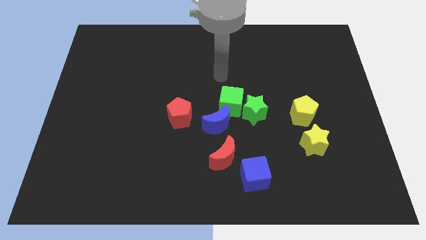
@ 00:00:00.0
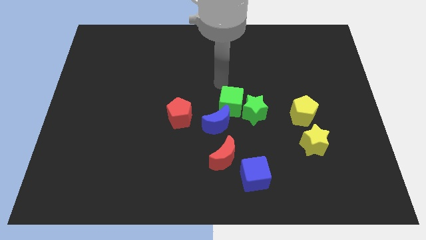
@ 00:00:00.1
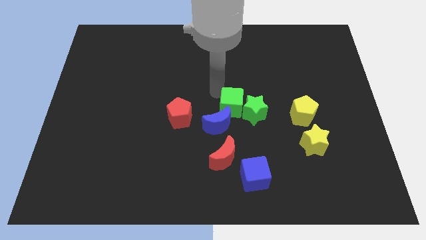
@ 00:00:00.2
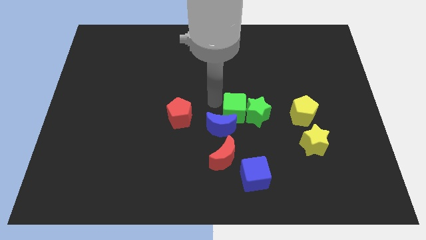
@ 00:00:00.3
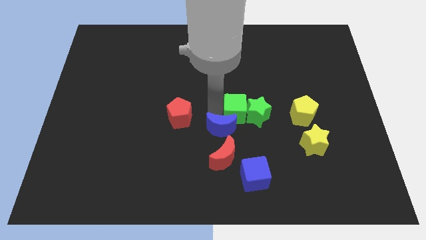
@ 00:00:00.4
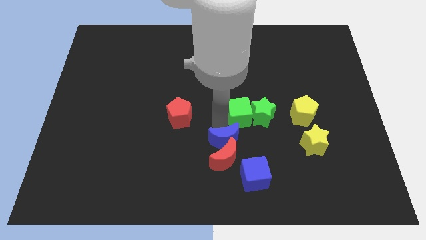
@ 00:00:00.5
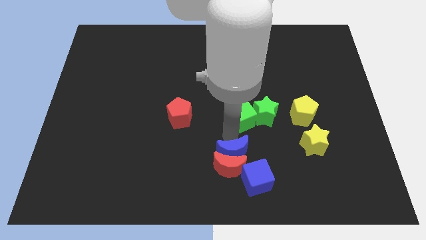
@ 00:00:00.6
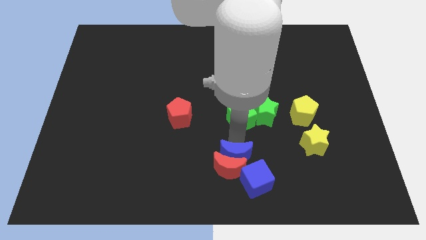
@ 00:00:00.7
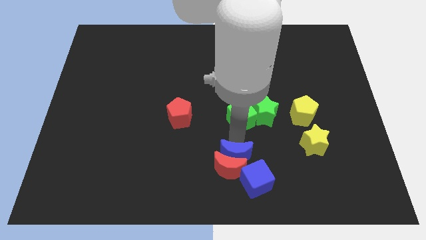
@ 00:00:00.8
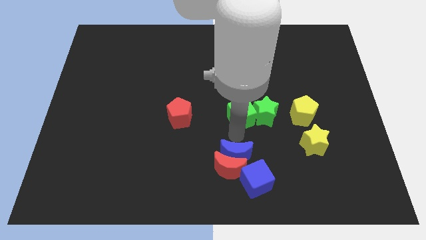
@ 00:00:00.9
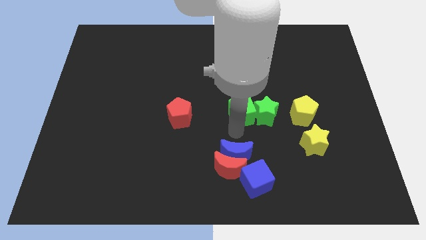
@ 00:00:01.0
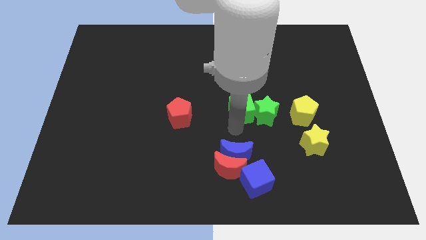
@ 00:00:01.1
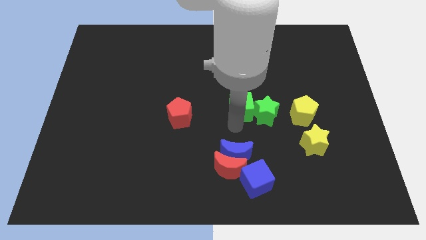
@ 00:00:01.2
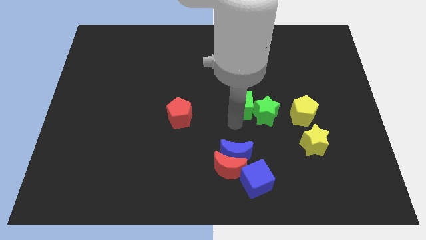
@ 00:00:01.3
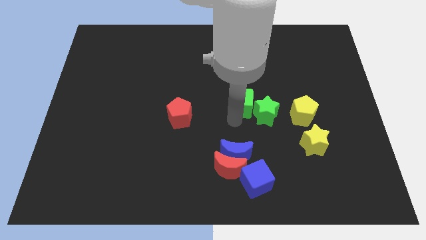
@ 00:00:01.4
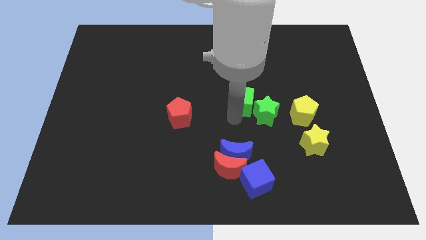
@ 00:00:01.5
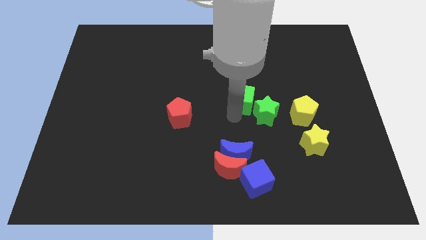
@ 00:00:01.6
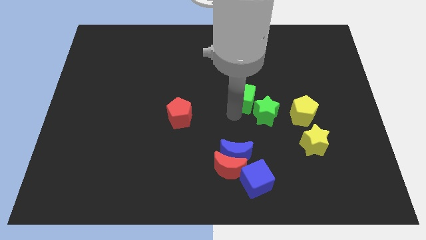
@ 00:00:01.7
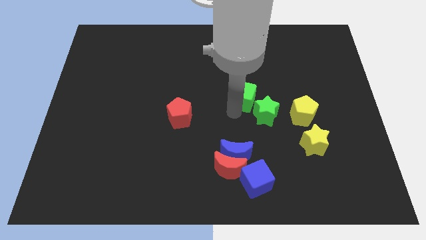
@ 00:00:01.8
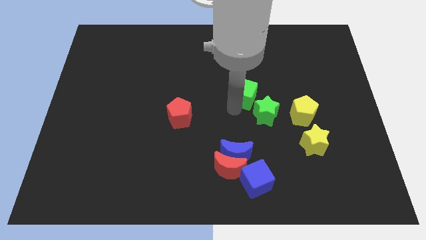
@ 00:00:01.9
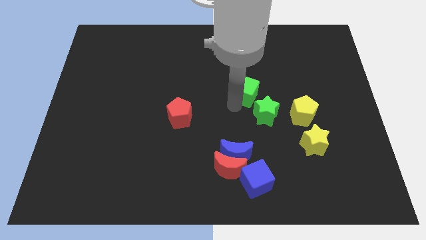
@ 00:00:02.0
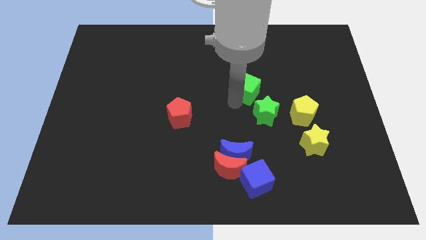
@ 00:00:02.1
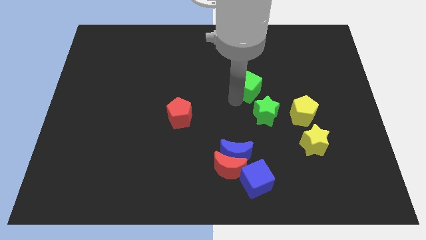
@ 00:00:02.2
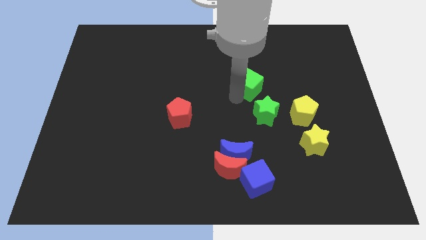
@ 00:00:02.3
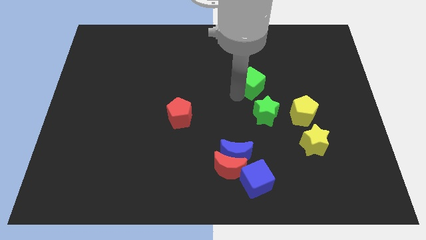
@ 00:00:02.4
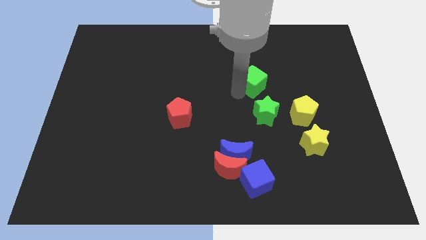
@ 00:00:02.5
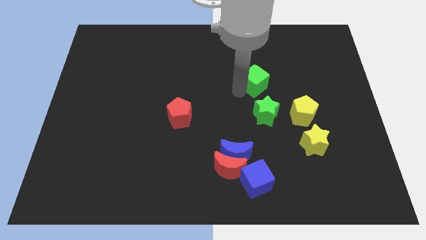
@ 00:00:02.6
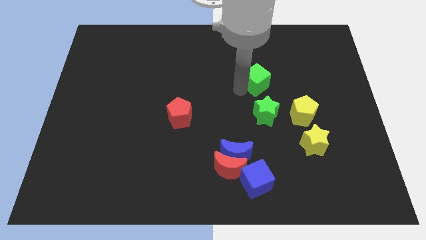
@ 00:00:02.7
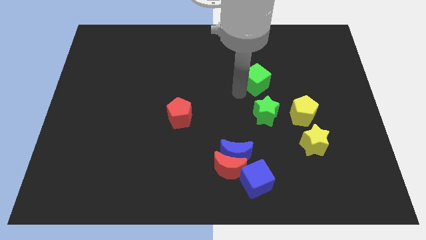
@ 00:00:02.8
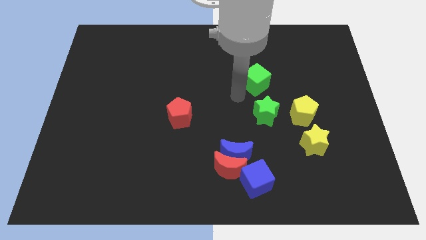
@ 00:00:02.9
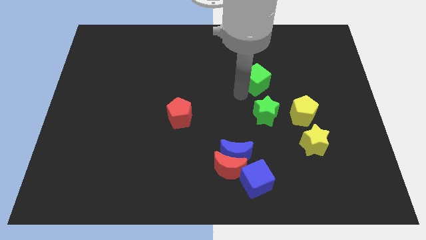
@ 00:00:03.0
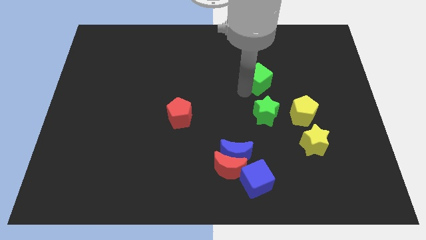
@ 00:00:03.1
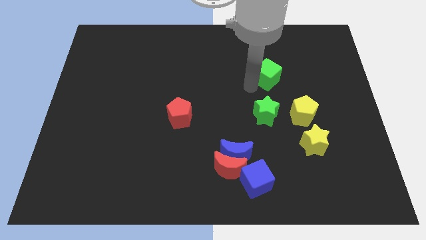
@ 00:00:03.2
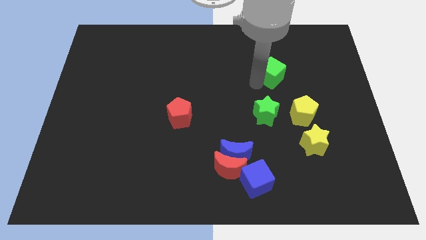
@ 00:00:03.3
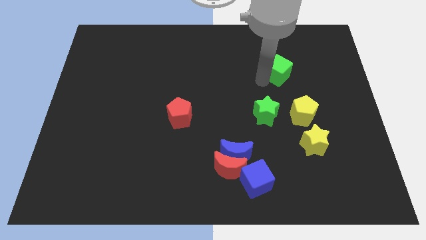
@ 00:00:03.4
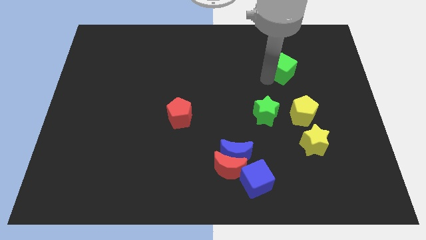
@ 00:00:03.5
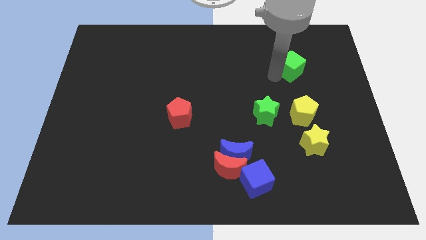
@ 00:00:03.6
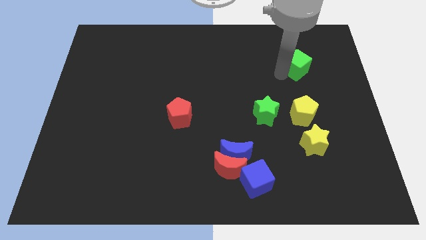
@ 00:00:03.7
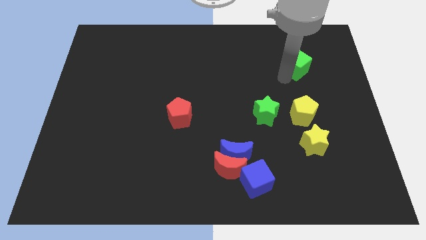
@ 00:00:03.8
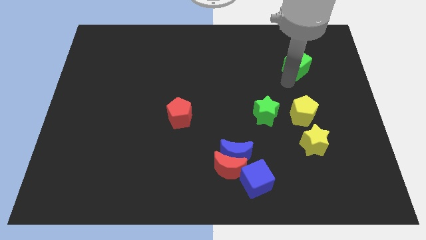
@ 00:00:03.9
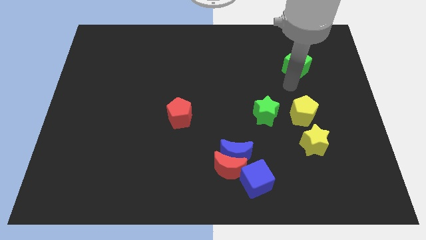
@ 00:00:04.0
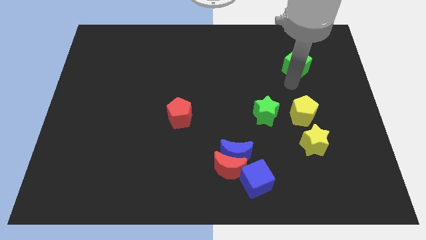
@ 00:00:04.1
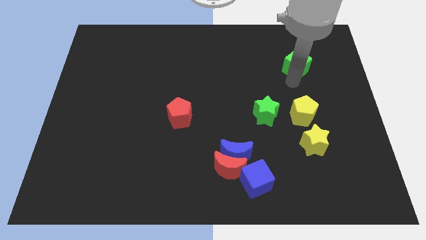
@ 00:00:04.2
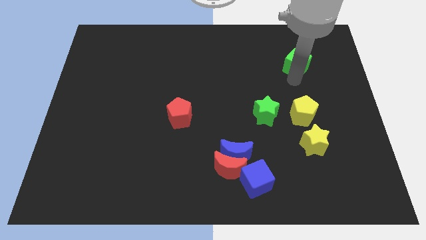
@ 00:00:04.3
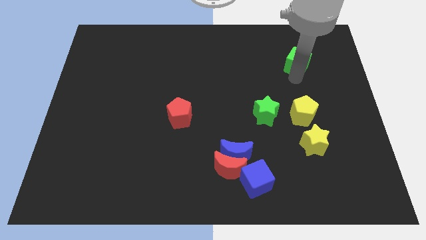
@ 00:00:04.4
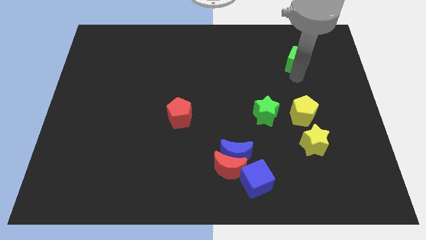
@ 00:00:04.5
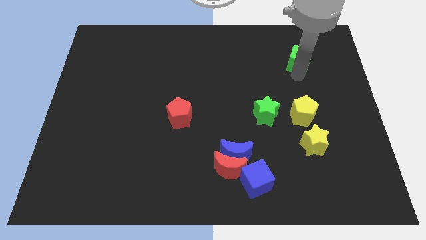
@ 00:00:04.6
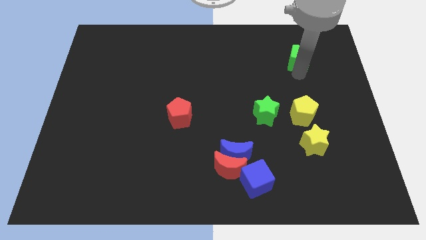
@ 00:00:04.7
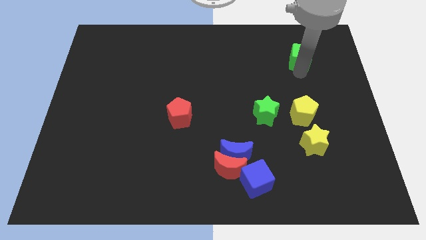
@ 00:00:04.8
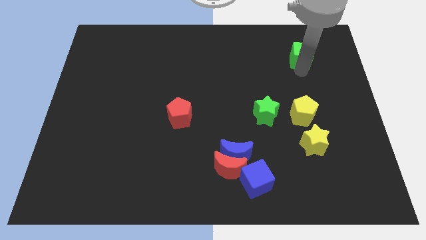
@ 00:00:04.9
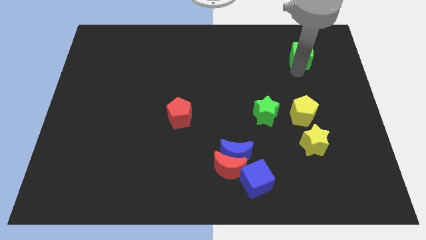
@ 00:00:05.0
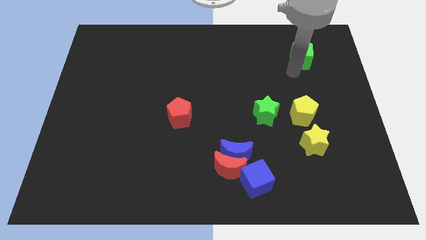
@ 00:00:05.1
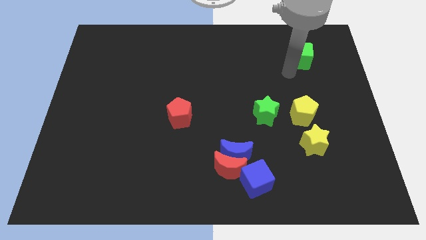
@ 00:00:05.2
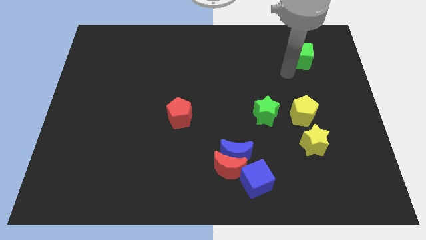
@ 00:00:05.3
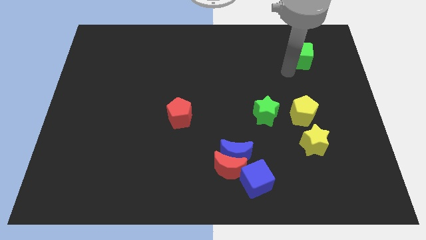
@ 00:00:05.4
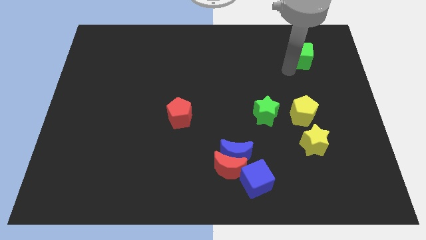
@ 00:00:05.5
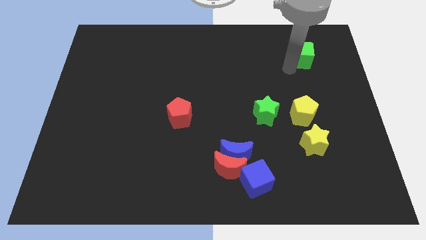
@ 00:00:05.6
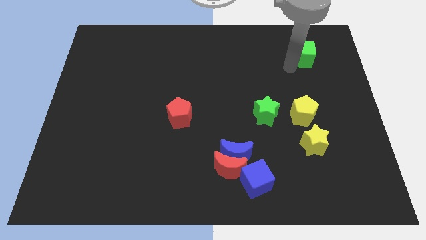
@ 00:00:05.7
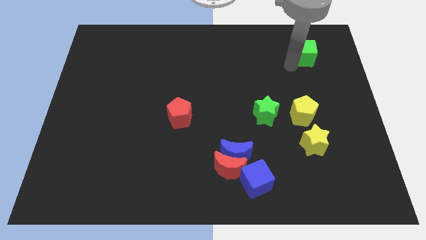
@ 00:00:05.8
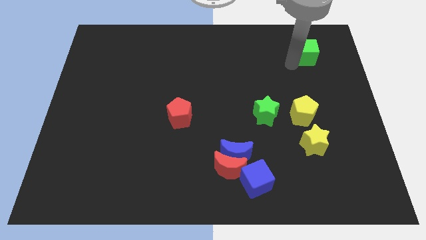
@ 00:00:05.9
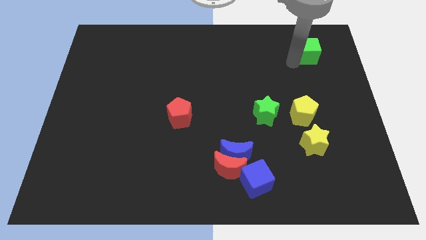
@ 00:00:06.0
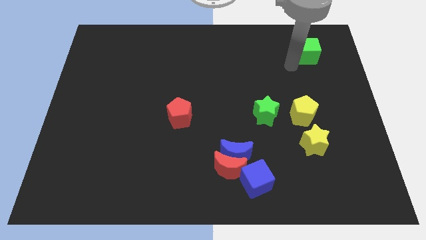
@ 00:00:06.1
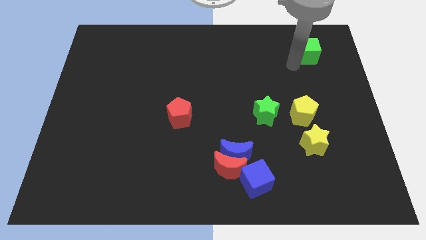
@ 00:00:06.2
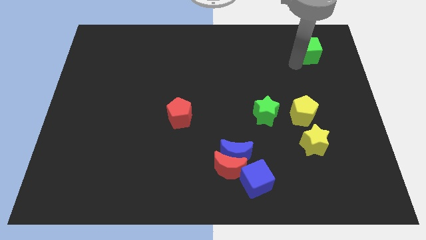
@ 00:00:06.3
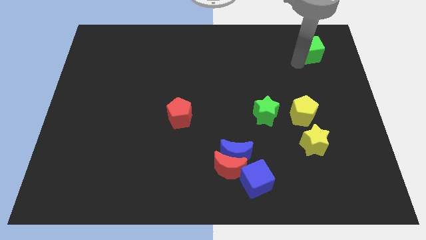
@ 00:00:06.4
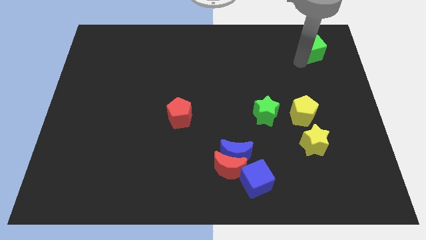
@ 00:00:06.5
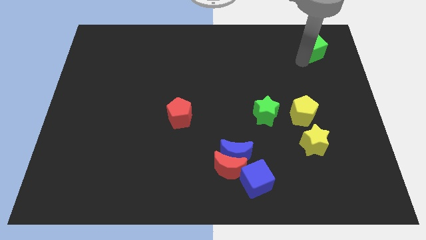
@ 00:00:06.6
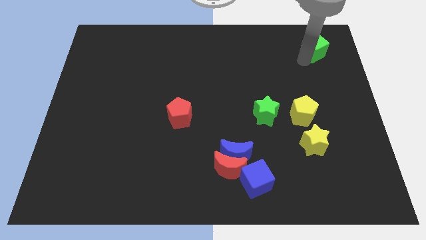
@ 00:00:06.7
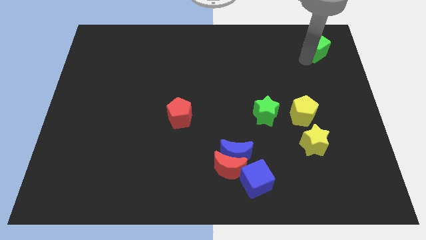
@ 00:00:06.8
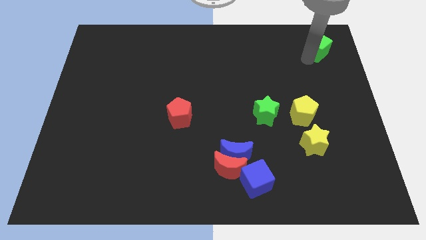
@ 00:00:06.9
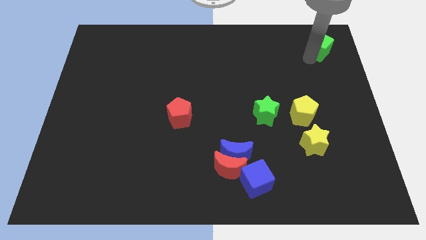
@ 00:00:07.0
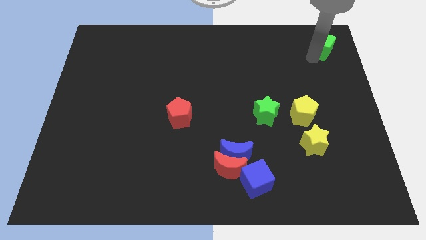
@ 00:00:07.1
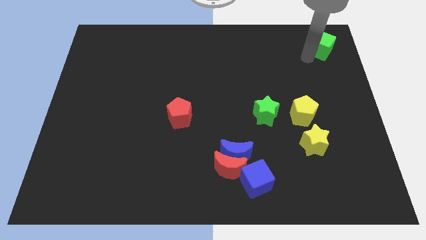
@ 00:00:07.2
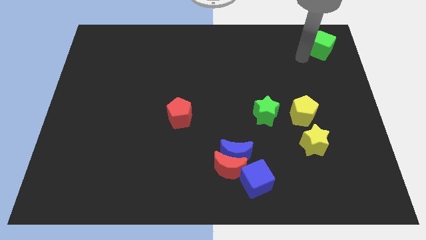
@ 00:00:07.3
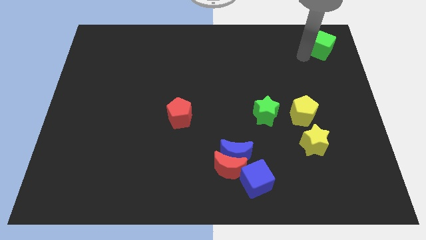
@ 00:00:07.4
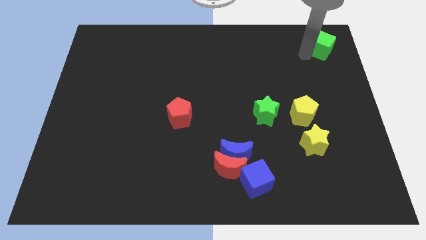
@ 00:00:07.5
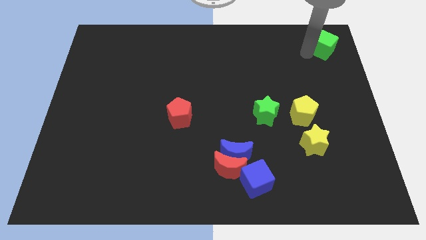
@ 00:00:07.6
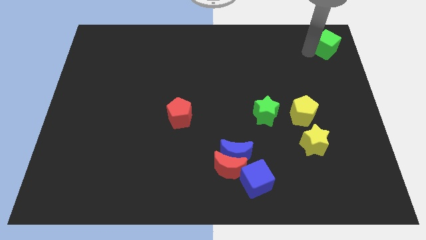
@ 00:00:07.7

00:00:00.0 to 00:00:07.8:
push the green cube to the top right
